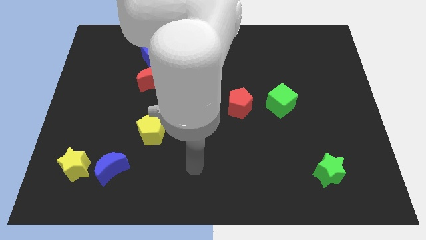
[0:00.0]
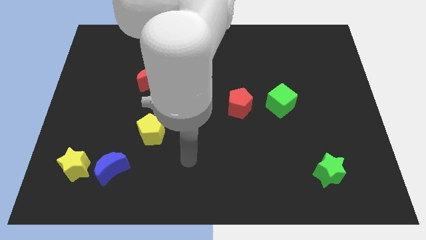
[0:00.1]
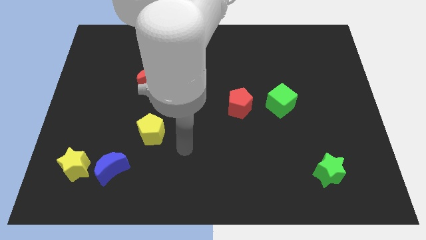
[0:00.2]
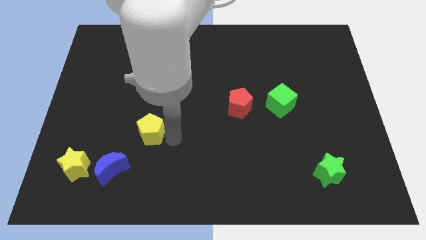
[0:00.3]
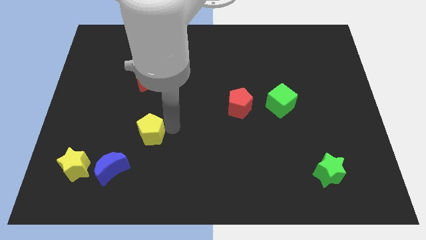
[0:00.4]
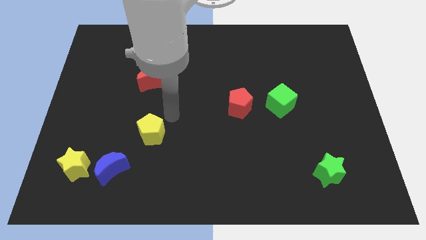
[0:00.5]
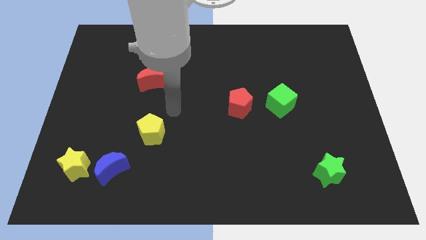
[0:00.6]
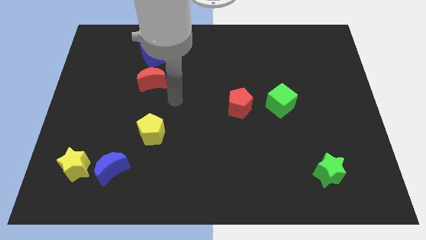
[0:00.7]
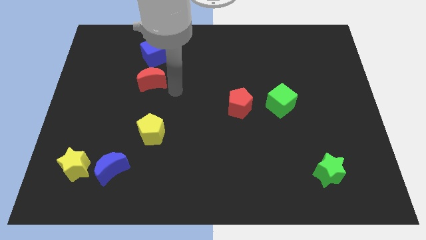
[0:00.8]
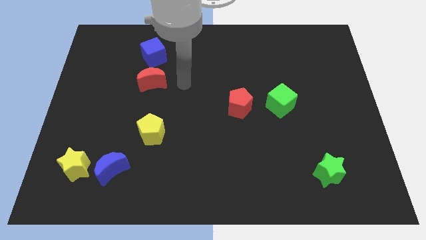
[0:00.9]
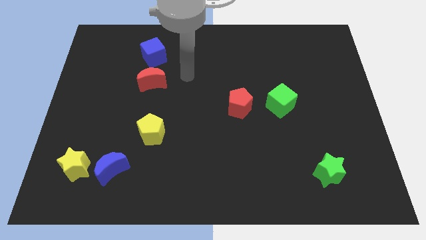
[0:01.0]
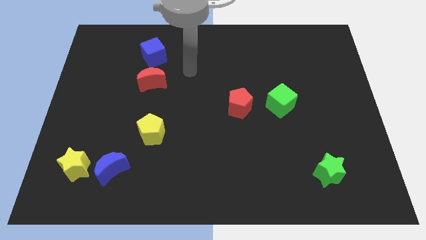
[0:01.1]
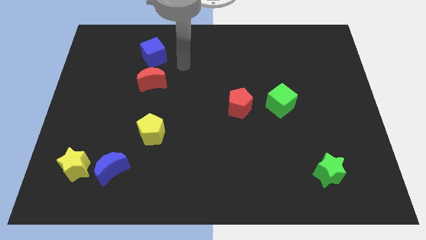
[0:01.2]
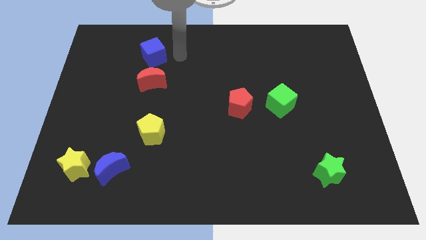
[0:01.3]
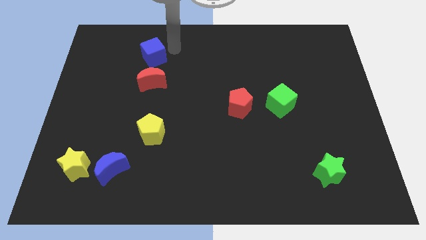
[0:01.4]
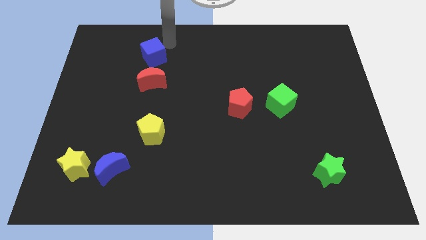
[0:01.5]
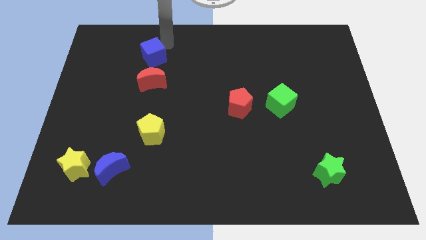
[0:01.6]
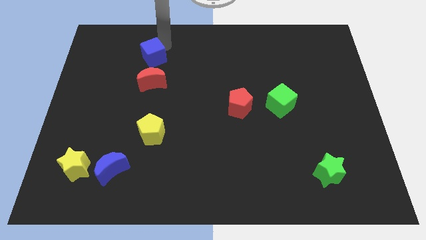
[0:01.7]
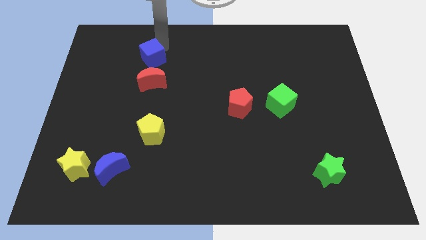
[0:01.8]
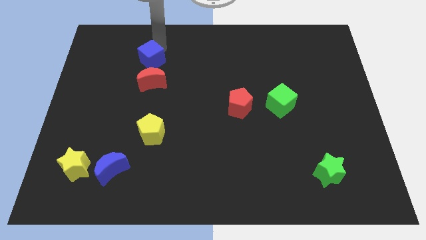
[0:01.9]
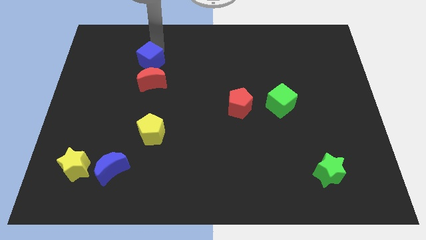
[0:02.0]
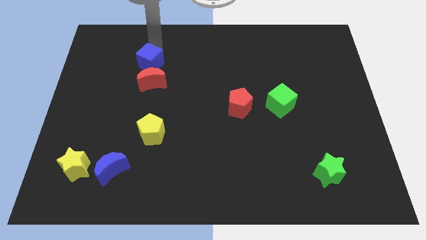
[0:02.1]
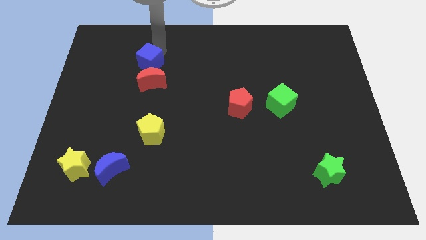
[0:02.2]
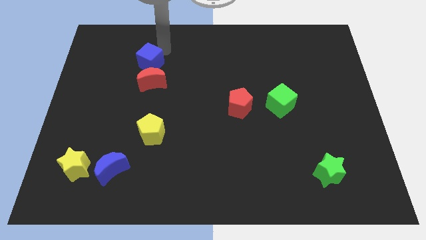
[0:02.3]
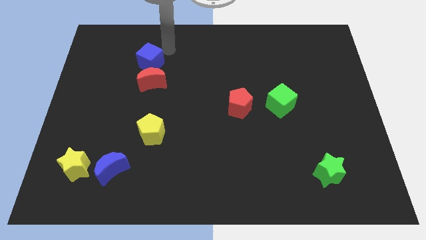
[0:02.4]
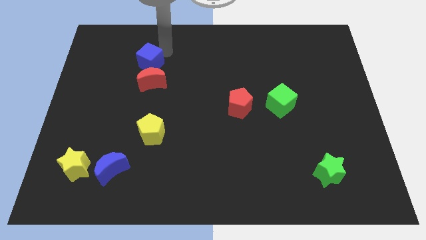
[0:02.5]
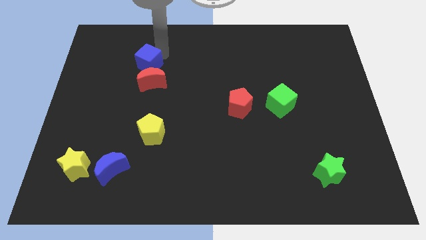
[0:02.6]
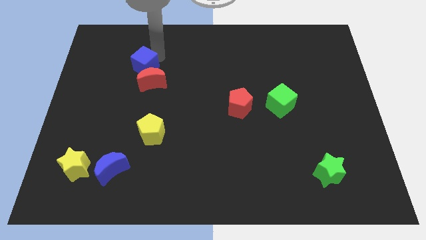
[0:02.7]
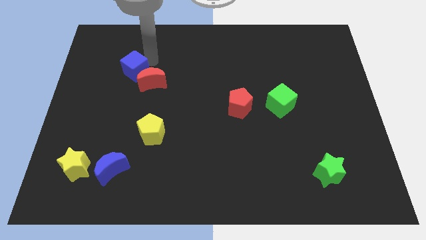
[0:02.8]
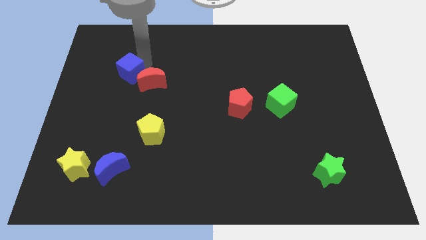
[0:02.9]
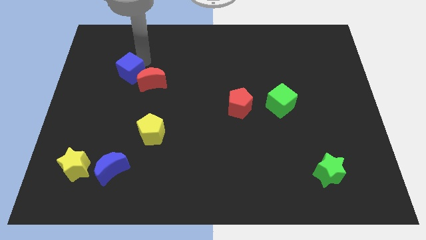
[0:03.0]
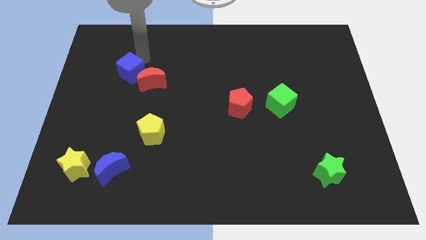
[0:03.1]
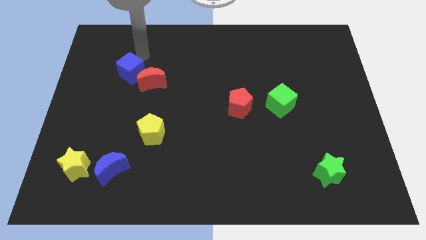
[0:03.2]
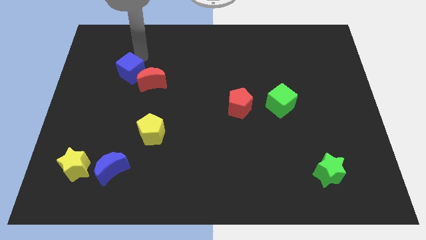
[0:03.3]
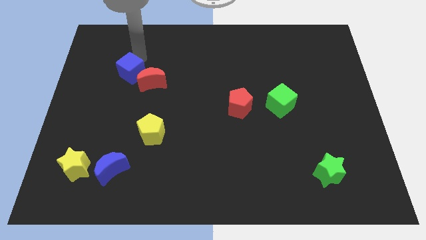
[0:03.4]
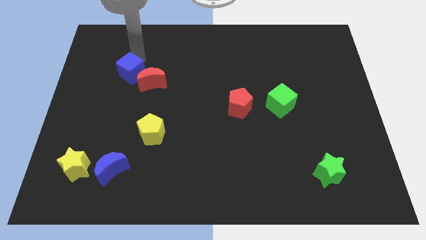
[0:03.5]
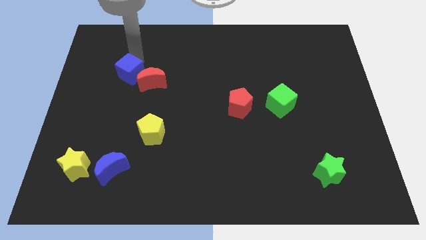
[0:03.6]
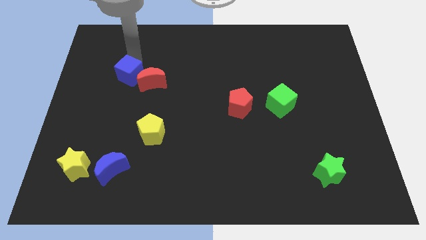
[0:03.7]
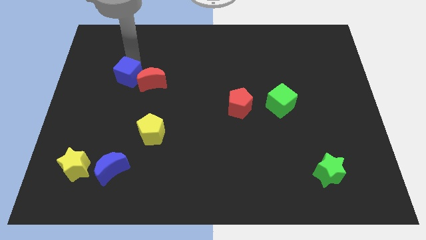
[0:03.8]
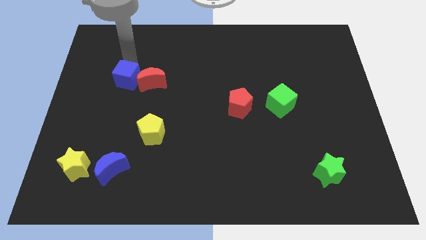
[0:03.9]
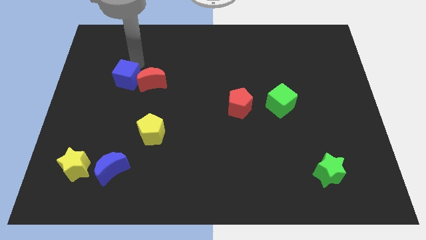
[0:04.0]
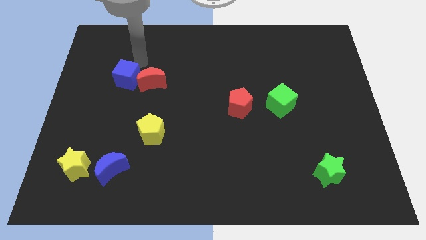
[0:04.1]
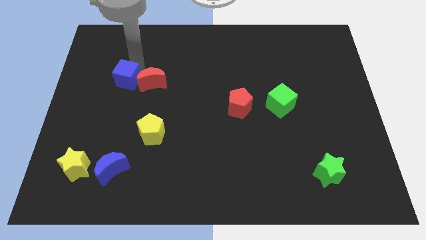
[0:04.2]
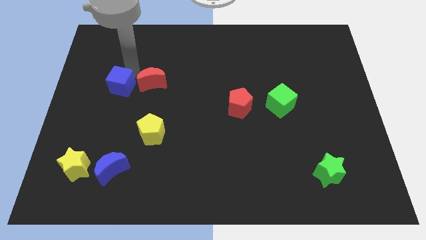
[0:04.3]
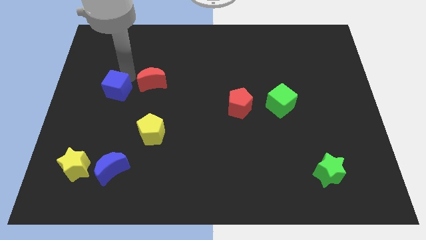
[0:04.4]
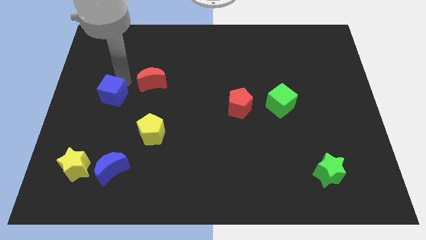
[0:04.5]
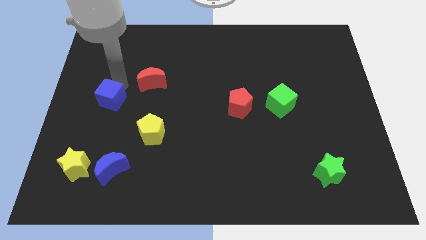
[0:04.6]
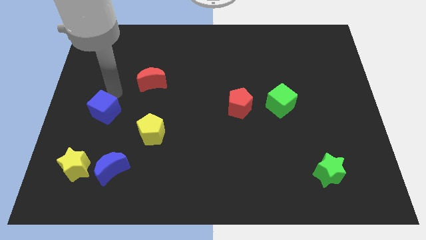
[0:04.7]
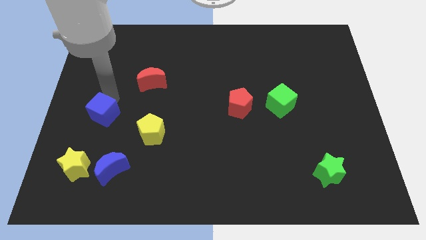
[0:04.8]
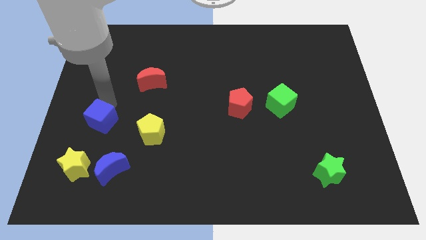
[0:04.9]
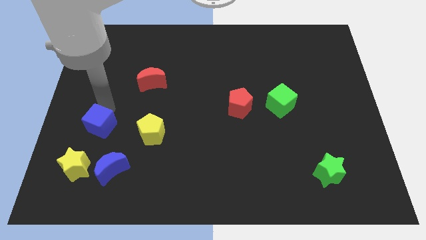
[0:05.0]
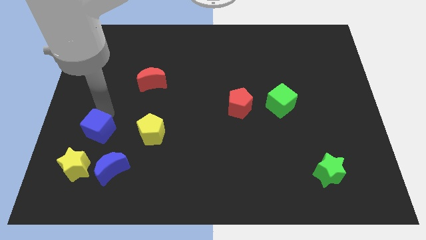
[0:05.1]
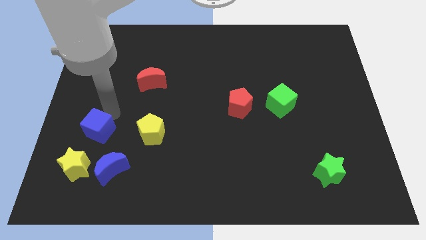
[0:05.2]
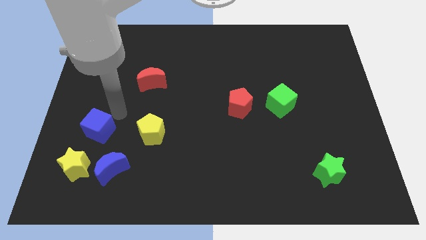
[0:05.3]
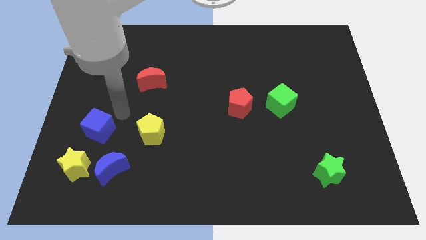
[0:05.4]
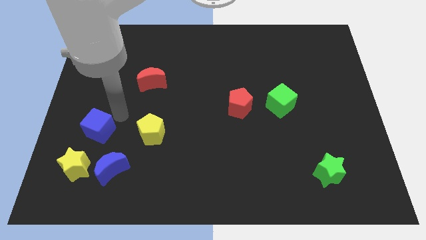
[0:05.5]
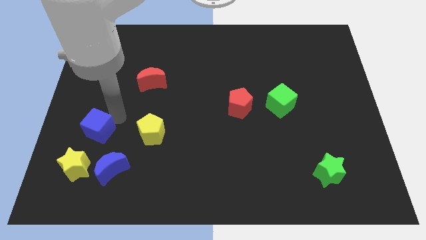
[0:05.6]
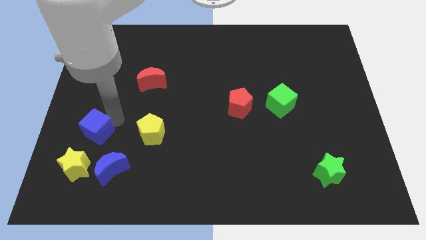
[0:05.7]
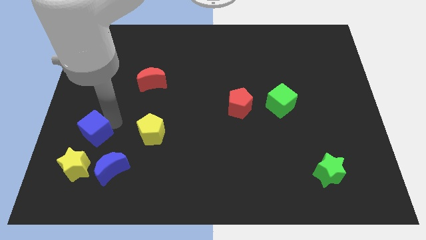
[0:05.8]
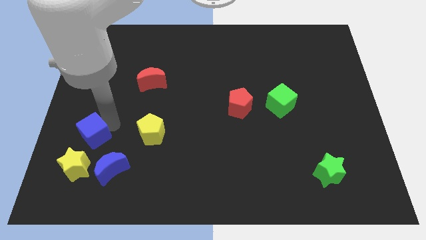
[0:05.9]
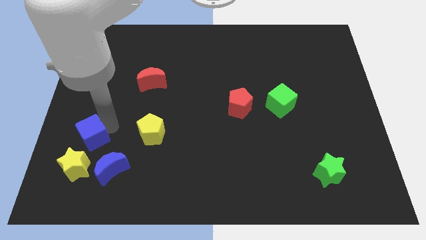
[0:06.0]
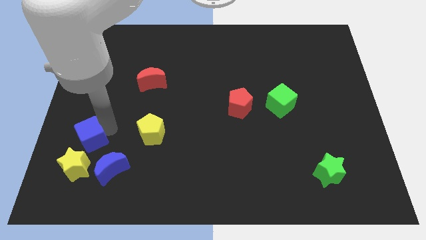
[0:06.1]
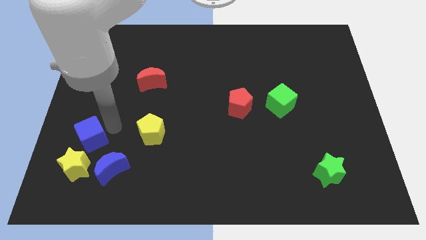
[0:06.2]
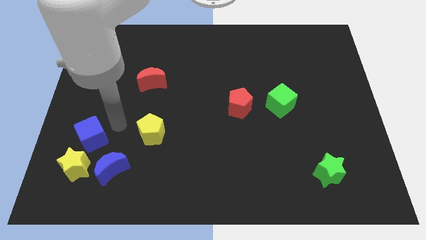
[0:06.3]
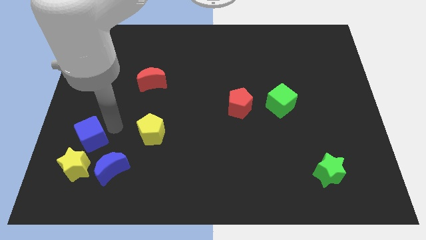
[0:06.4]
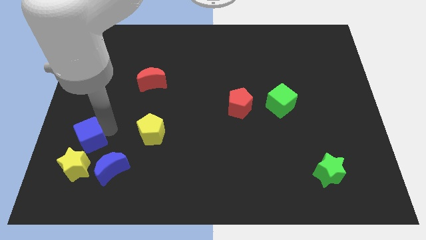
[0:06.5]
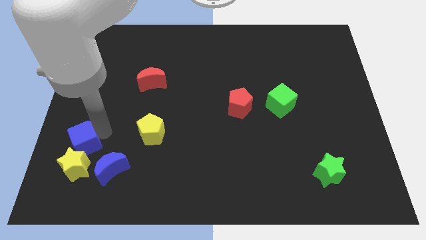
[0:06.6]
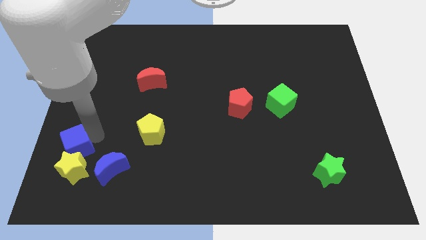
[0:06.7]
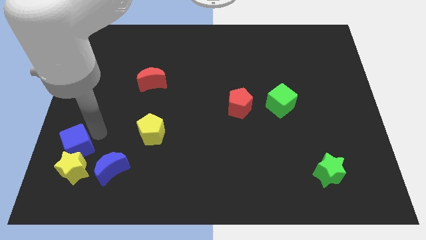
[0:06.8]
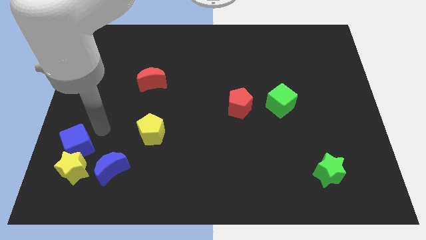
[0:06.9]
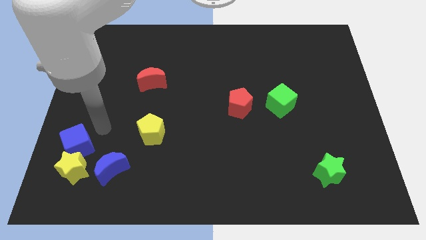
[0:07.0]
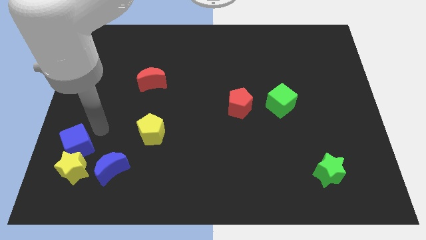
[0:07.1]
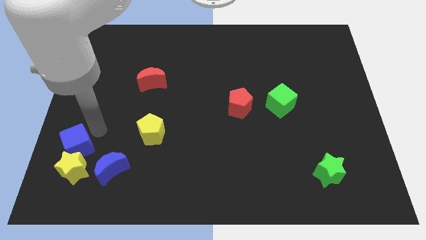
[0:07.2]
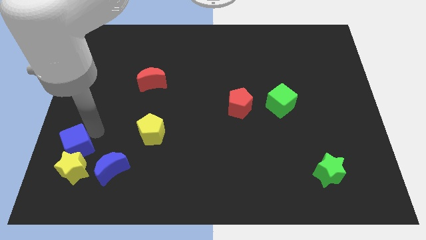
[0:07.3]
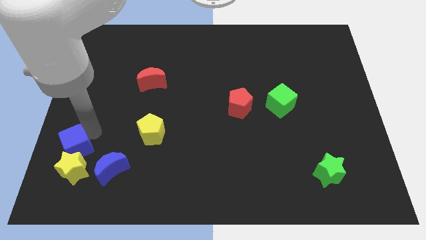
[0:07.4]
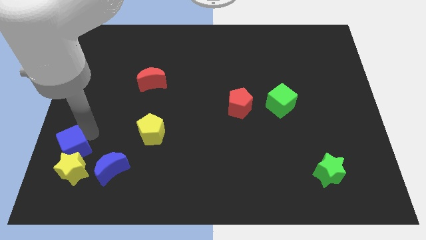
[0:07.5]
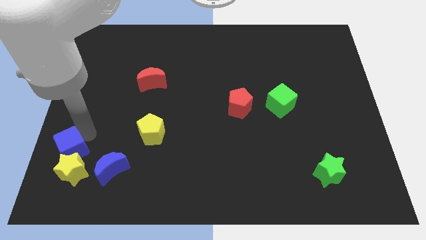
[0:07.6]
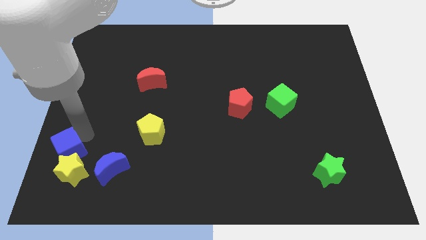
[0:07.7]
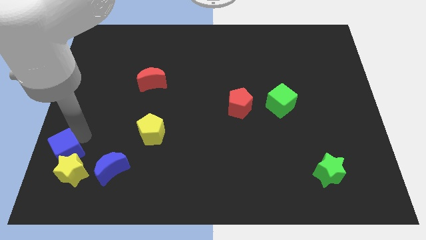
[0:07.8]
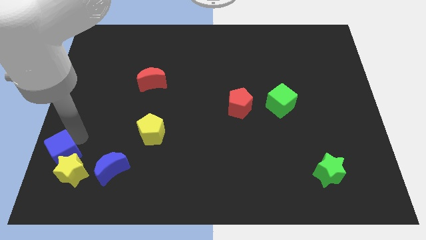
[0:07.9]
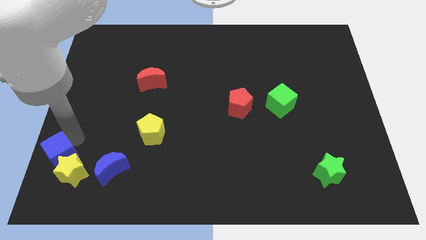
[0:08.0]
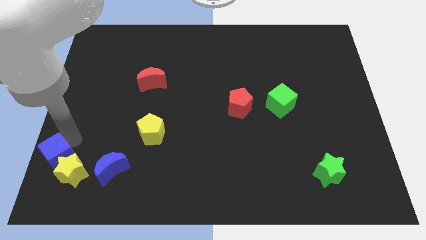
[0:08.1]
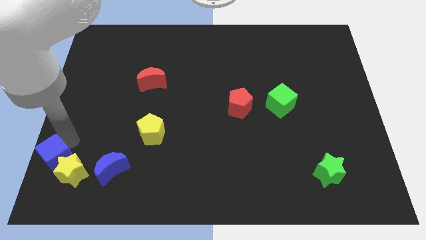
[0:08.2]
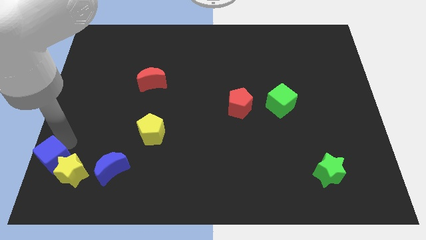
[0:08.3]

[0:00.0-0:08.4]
move the blue cube to the lower left corner
